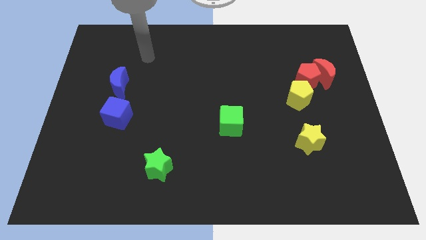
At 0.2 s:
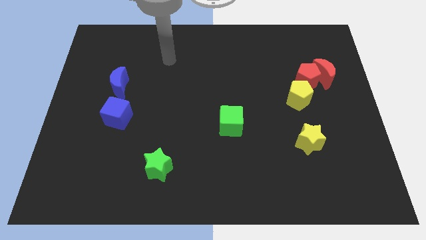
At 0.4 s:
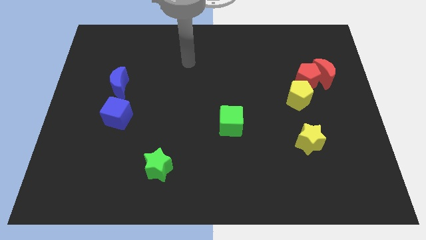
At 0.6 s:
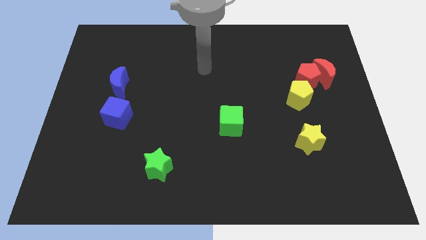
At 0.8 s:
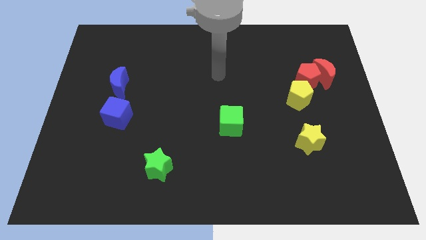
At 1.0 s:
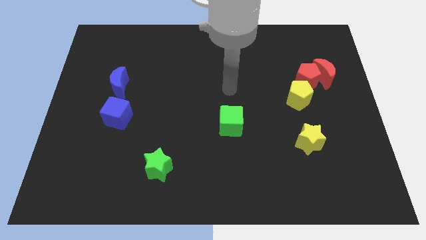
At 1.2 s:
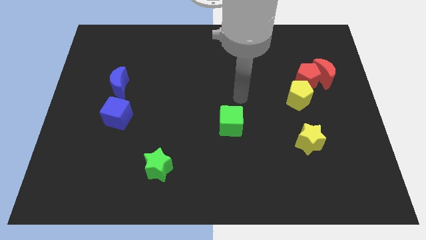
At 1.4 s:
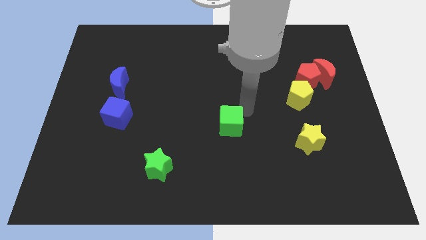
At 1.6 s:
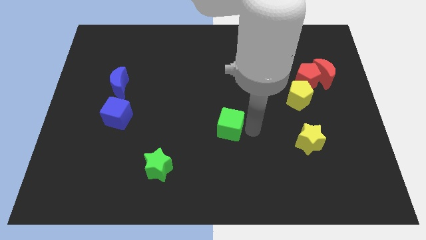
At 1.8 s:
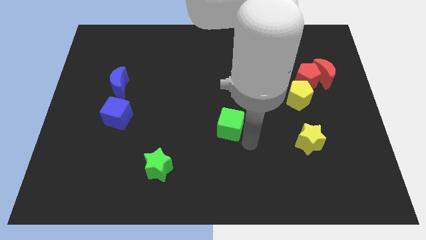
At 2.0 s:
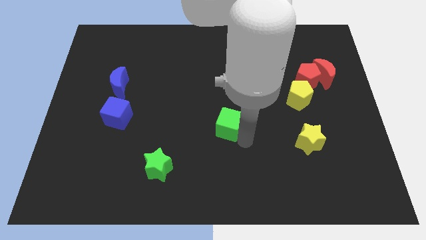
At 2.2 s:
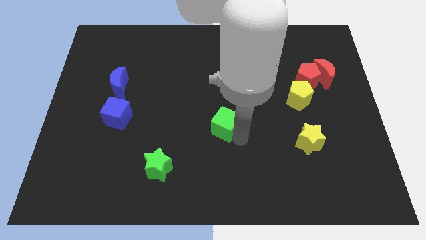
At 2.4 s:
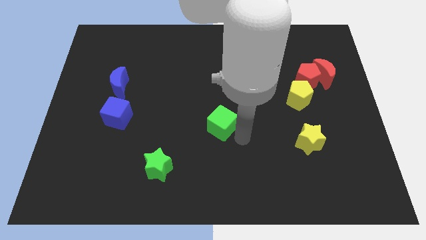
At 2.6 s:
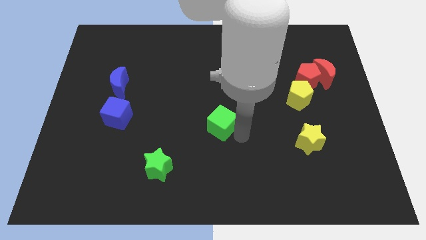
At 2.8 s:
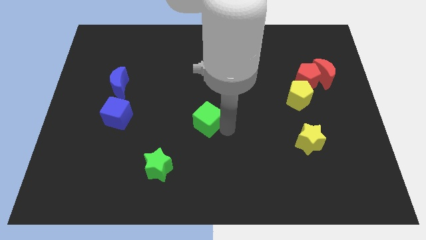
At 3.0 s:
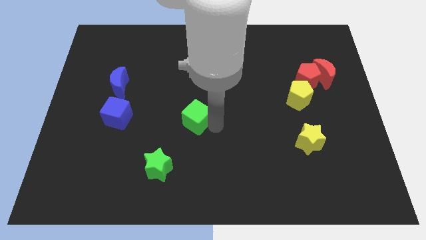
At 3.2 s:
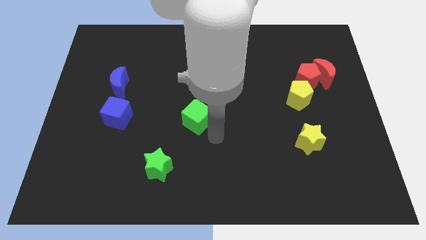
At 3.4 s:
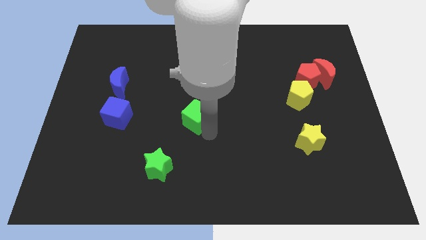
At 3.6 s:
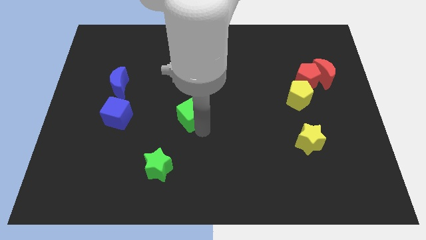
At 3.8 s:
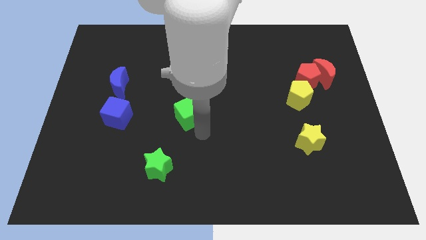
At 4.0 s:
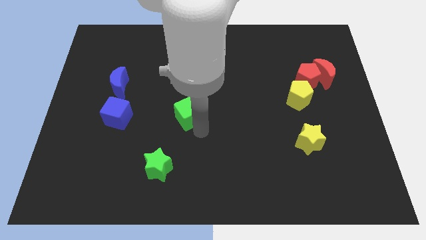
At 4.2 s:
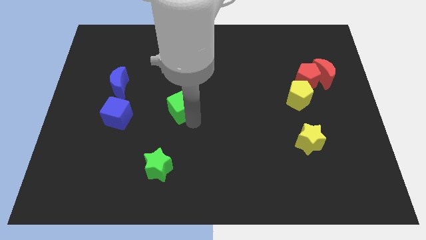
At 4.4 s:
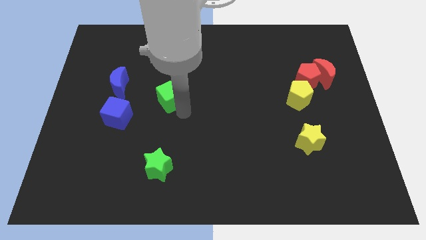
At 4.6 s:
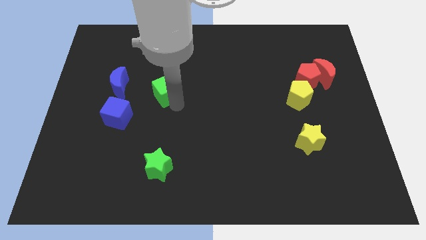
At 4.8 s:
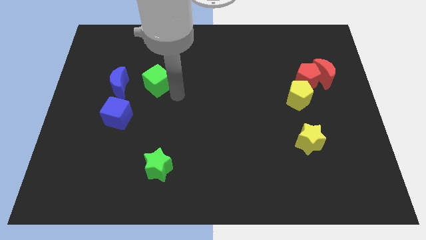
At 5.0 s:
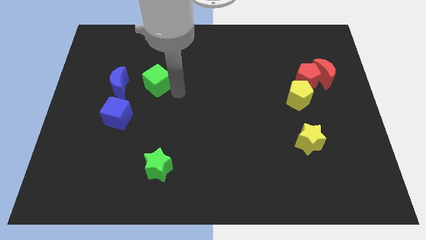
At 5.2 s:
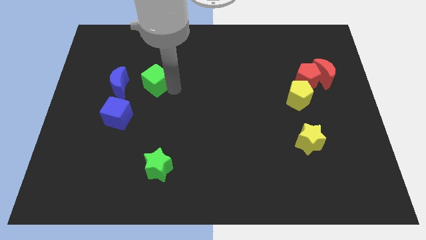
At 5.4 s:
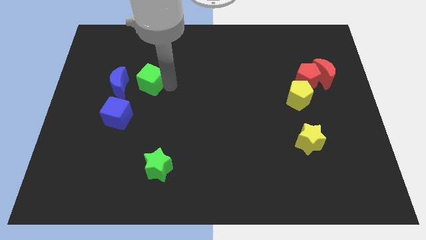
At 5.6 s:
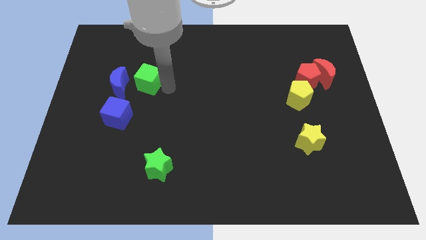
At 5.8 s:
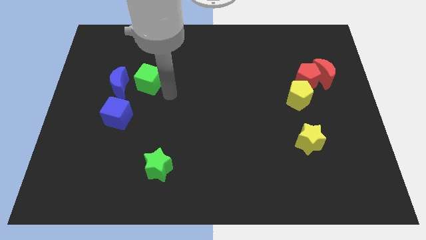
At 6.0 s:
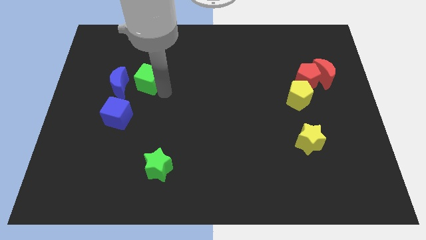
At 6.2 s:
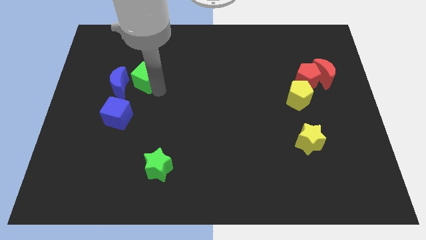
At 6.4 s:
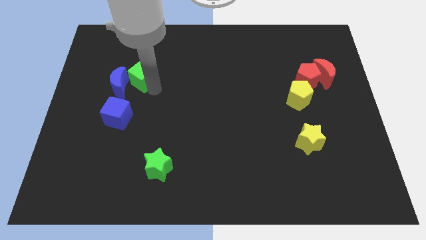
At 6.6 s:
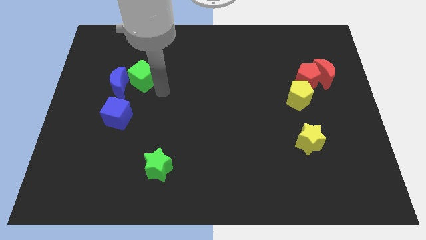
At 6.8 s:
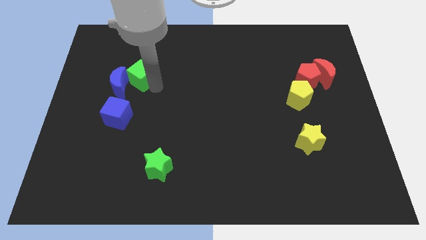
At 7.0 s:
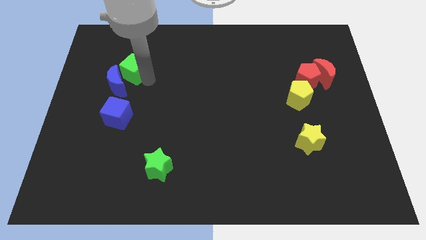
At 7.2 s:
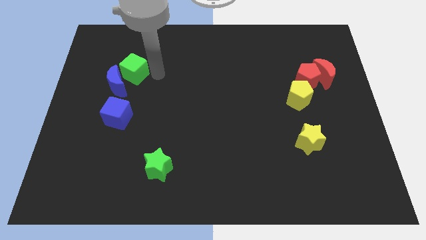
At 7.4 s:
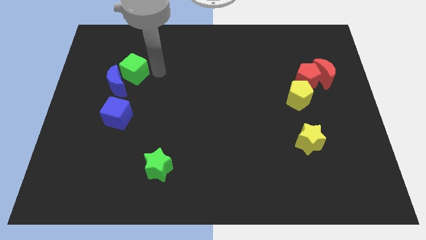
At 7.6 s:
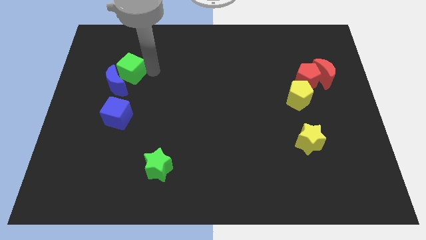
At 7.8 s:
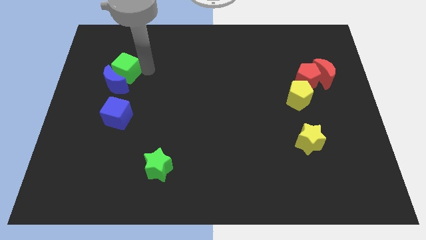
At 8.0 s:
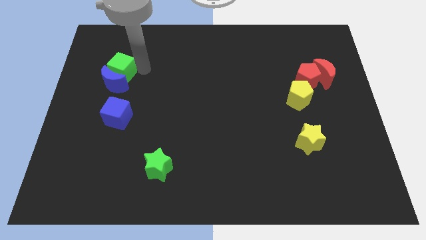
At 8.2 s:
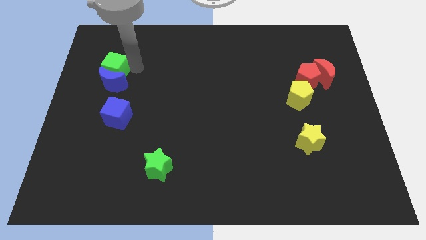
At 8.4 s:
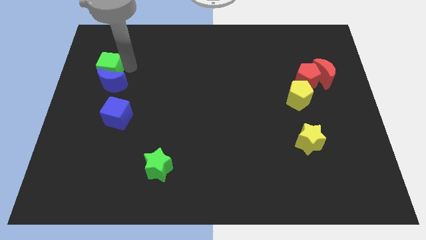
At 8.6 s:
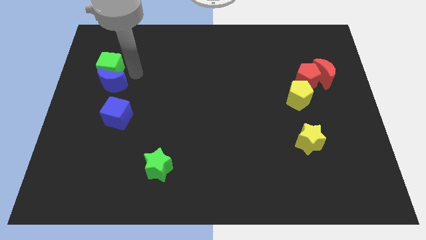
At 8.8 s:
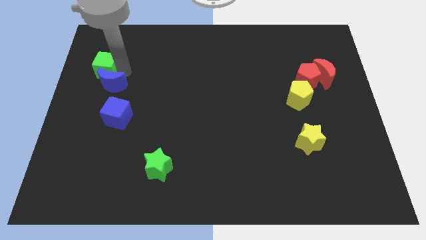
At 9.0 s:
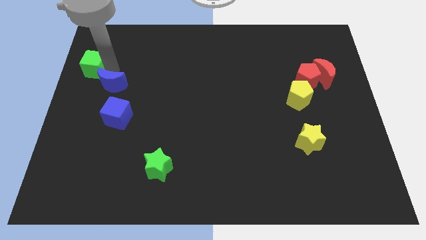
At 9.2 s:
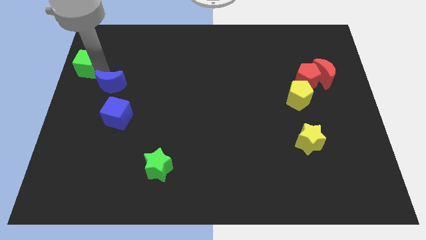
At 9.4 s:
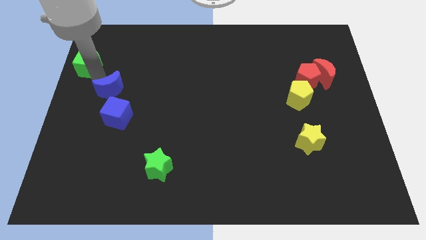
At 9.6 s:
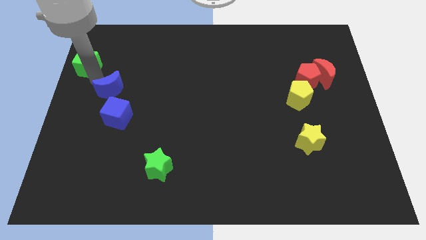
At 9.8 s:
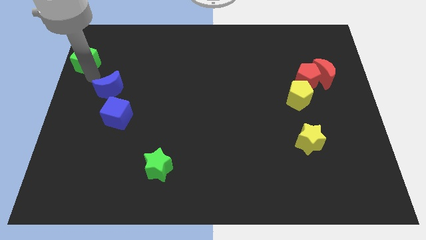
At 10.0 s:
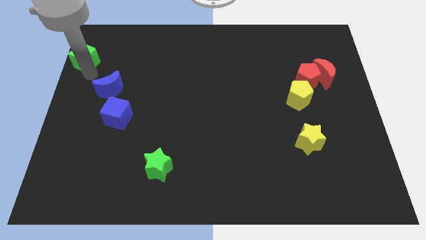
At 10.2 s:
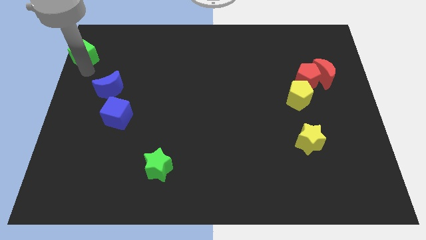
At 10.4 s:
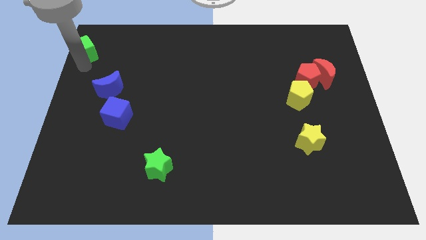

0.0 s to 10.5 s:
slide the green cube to the upper left corner

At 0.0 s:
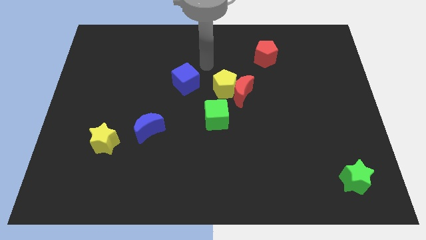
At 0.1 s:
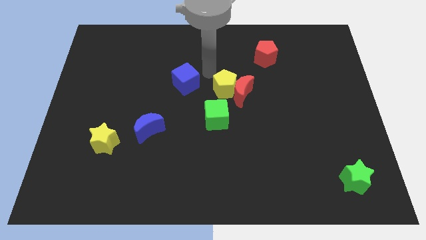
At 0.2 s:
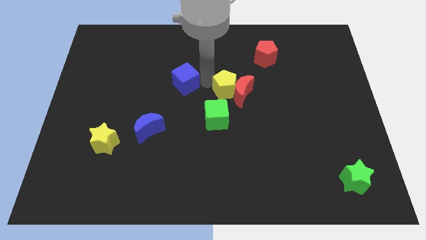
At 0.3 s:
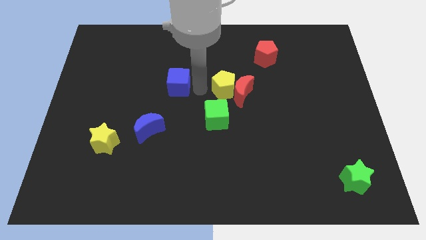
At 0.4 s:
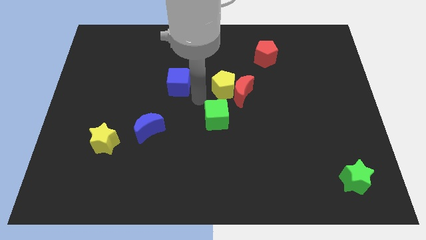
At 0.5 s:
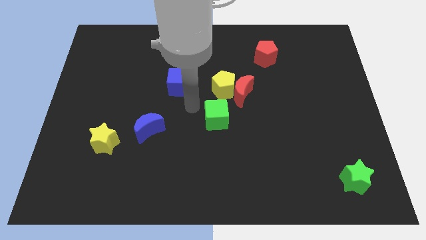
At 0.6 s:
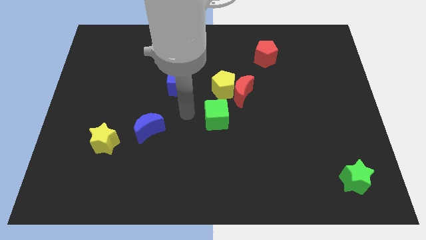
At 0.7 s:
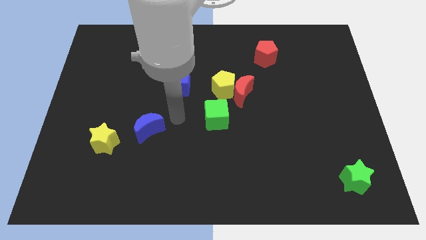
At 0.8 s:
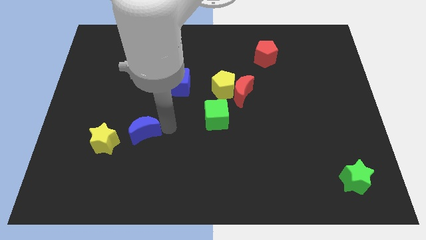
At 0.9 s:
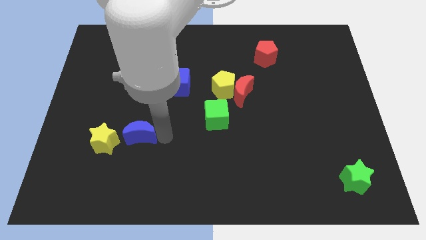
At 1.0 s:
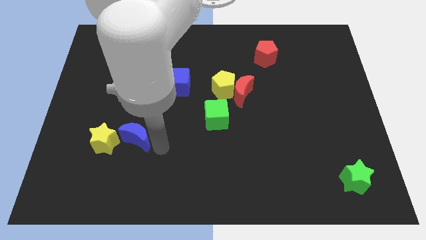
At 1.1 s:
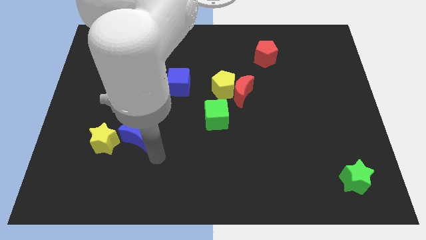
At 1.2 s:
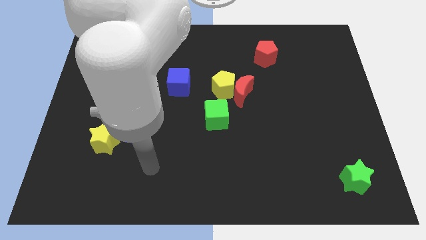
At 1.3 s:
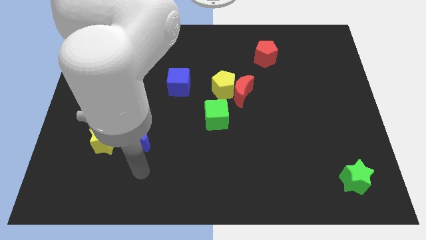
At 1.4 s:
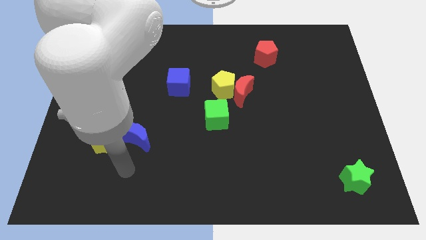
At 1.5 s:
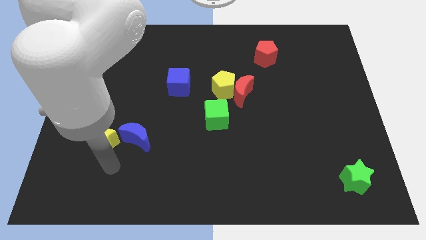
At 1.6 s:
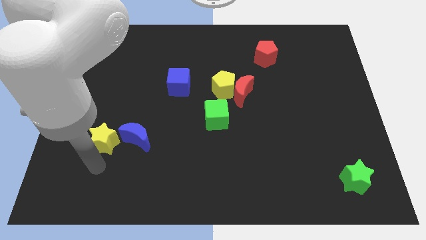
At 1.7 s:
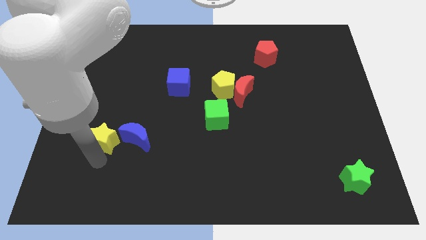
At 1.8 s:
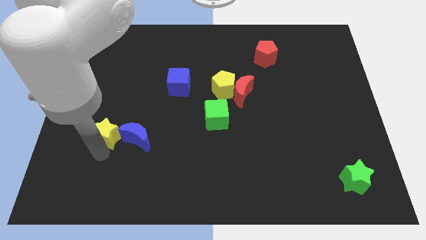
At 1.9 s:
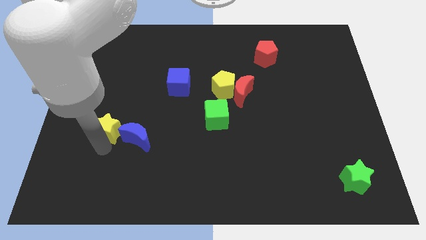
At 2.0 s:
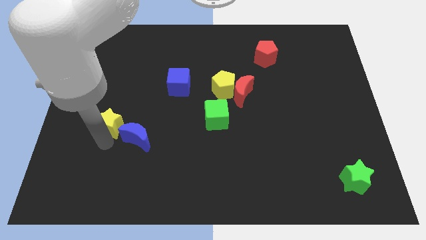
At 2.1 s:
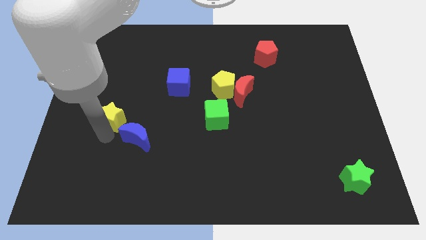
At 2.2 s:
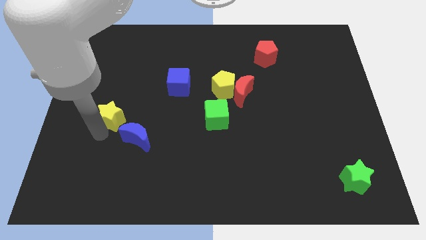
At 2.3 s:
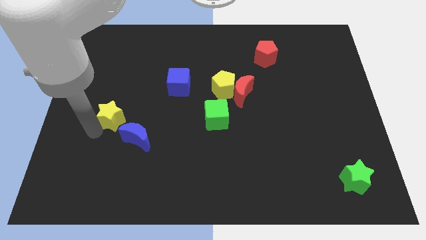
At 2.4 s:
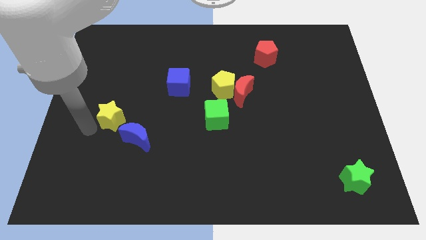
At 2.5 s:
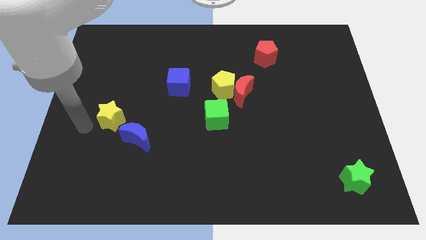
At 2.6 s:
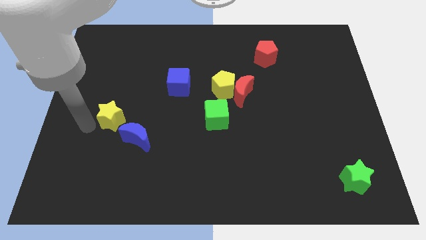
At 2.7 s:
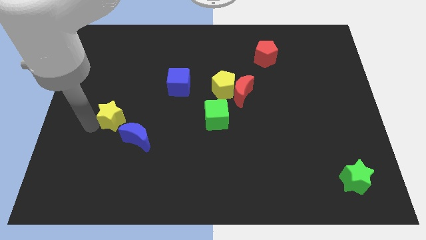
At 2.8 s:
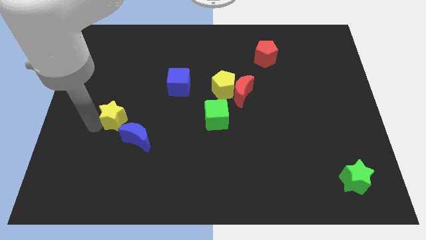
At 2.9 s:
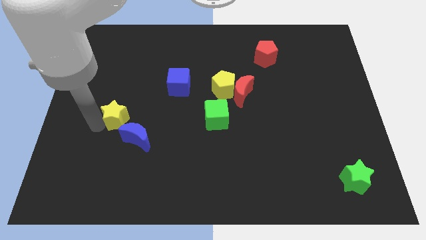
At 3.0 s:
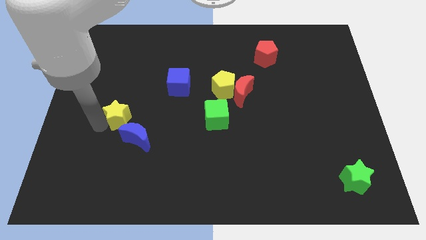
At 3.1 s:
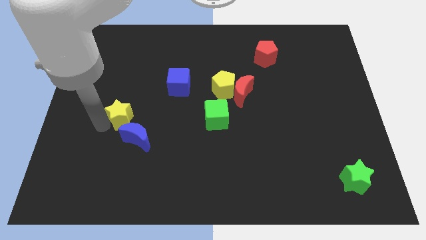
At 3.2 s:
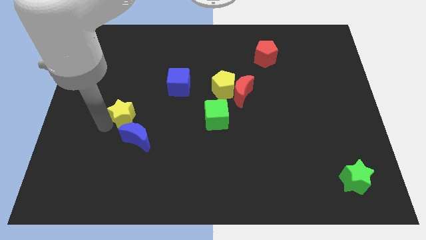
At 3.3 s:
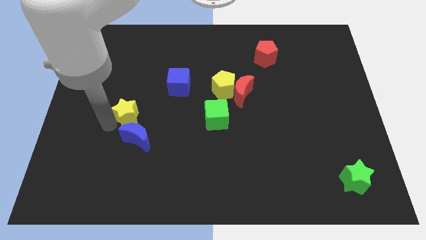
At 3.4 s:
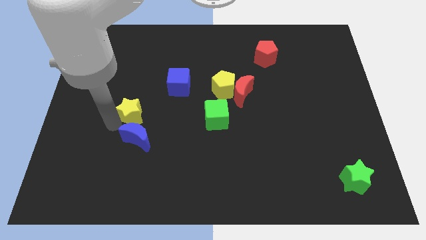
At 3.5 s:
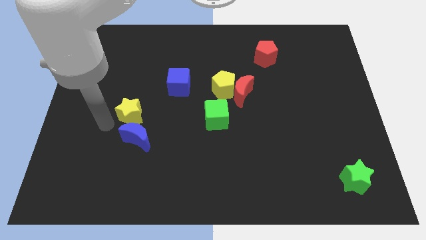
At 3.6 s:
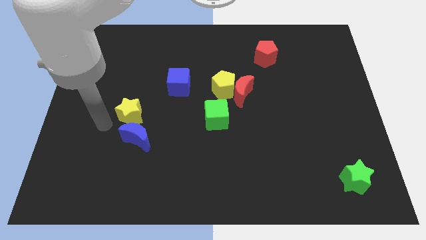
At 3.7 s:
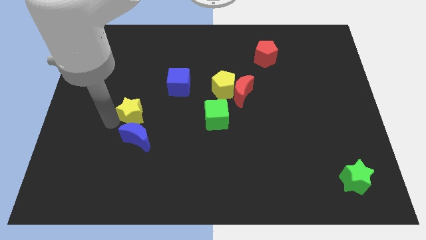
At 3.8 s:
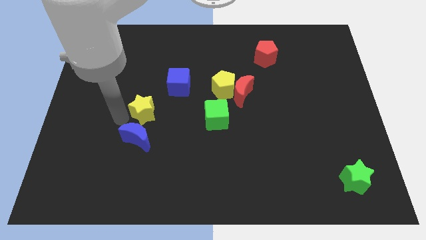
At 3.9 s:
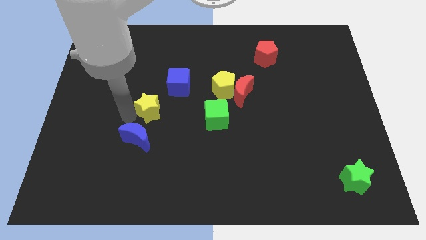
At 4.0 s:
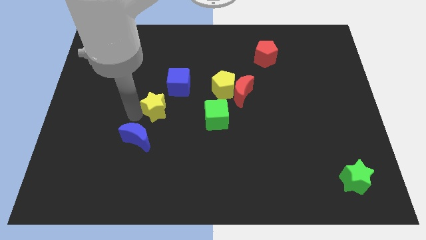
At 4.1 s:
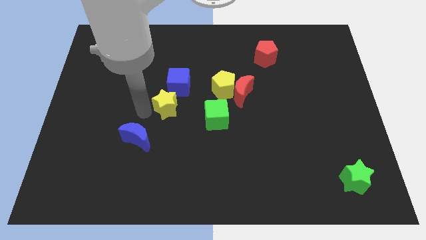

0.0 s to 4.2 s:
move the yellow star to the center of the board
